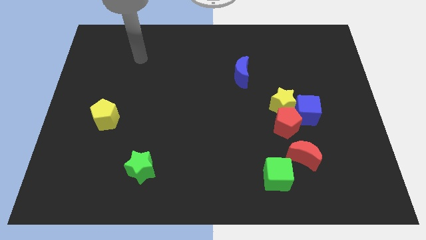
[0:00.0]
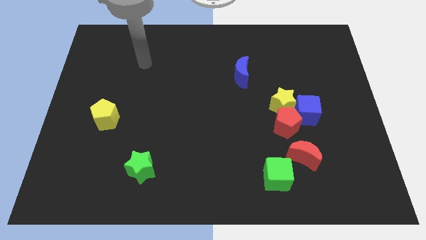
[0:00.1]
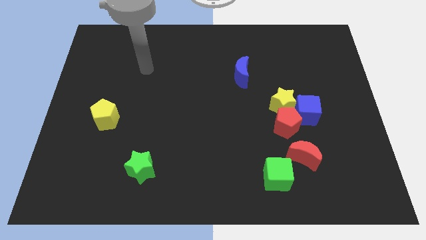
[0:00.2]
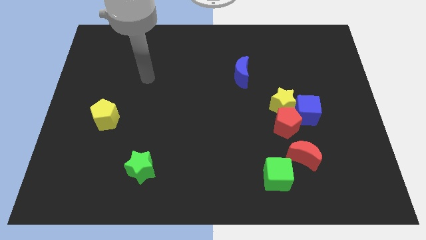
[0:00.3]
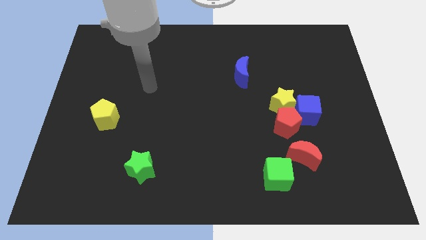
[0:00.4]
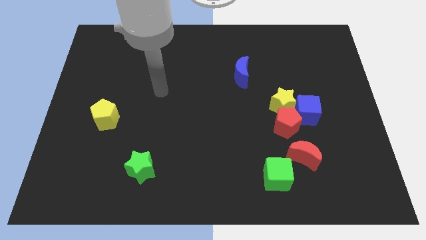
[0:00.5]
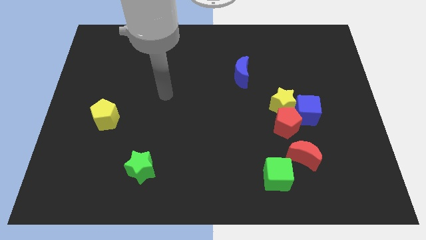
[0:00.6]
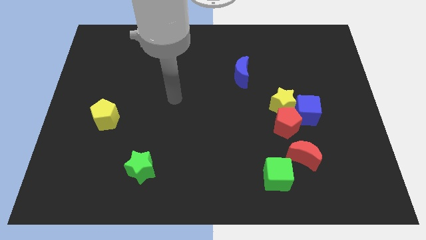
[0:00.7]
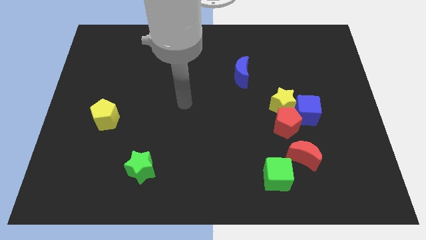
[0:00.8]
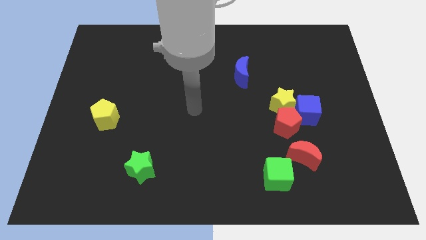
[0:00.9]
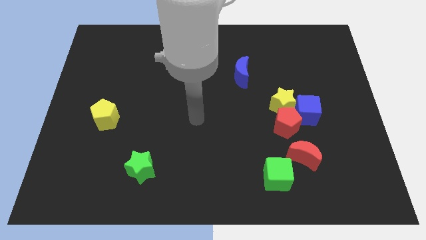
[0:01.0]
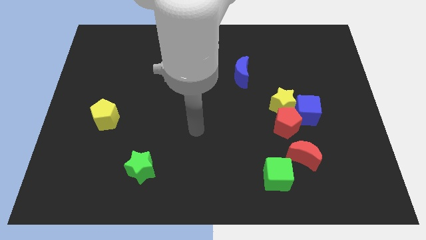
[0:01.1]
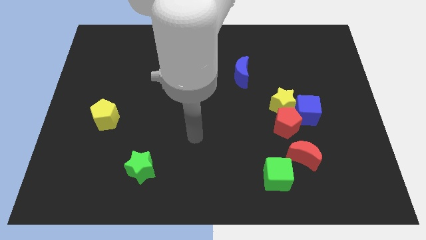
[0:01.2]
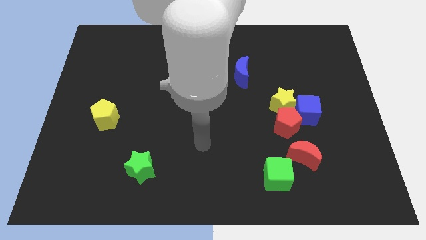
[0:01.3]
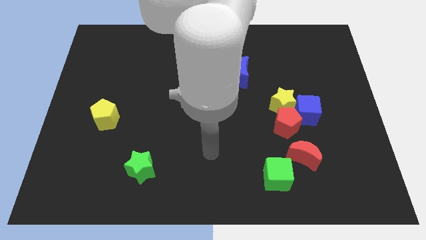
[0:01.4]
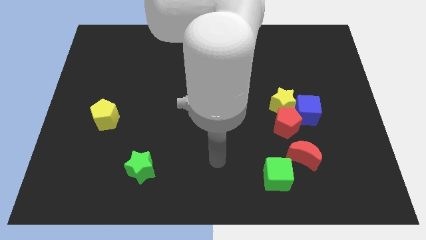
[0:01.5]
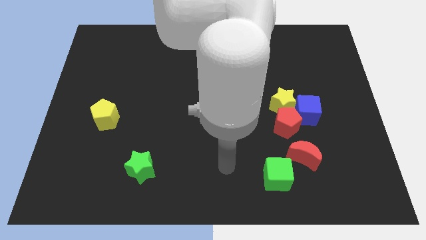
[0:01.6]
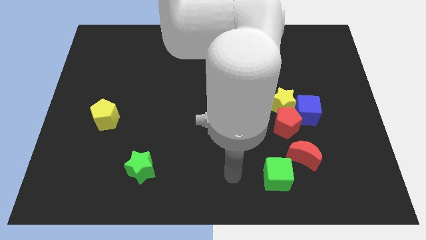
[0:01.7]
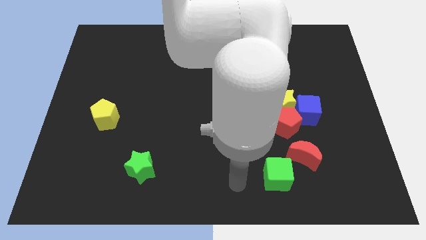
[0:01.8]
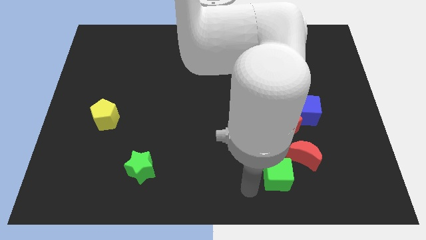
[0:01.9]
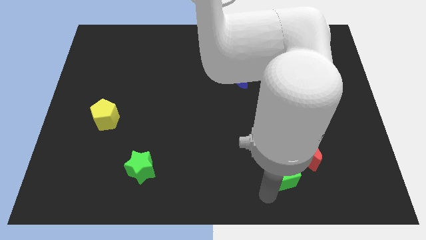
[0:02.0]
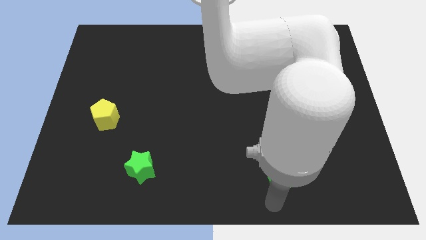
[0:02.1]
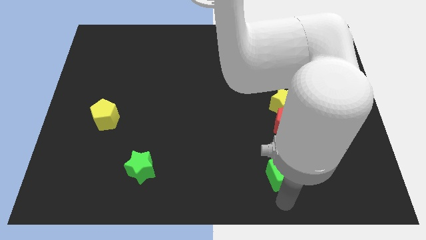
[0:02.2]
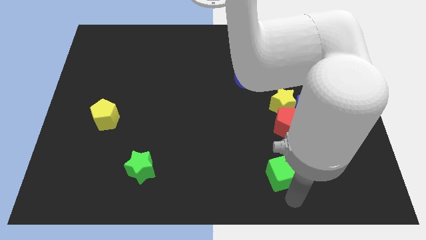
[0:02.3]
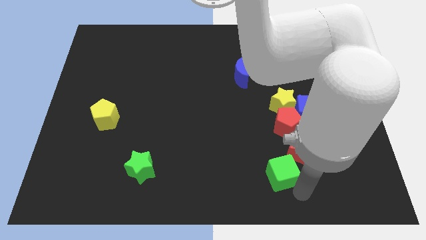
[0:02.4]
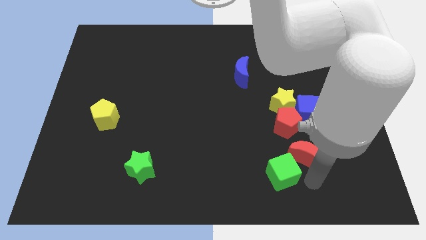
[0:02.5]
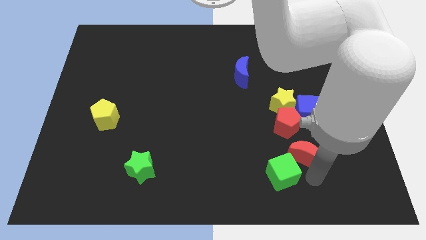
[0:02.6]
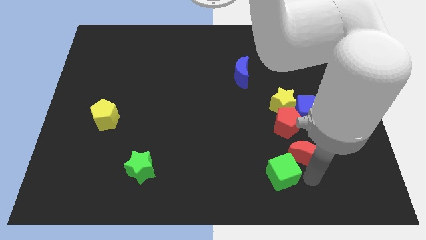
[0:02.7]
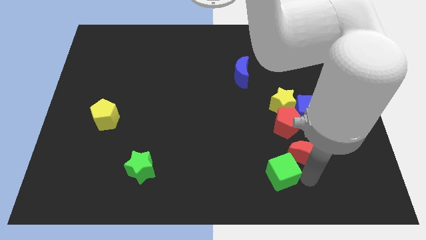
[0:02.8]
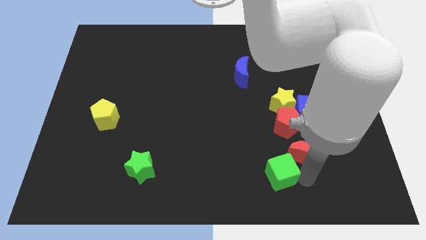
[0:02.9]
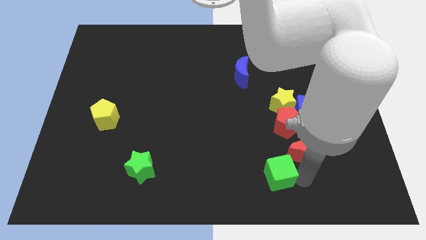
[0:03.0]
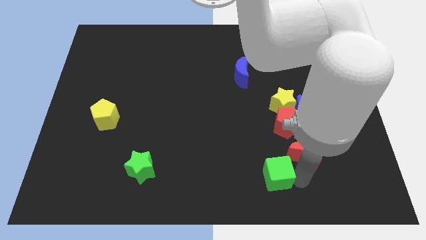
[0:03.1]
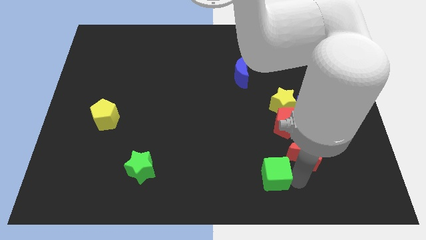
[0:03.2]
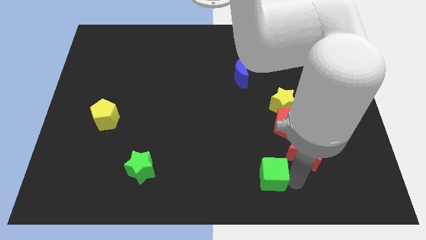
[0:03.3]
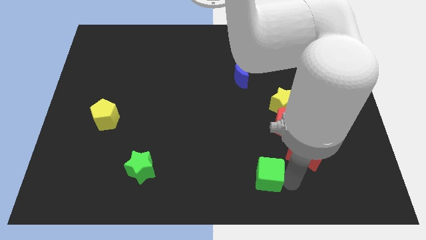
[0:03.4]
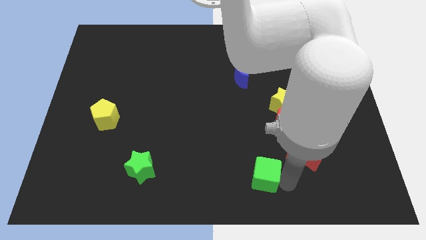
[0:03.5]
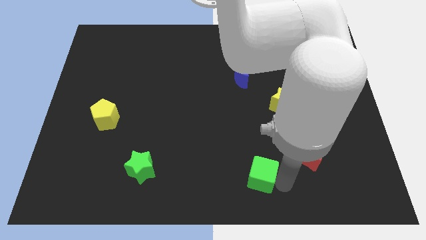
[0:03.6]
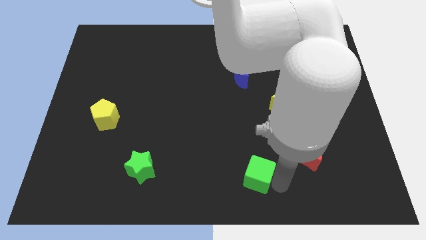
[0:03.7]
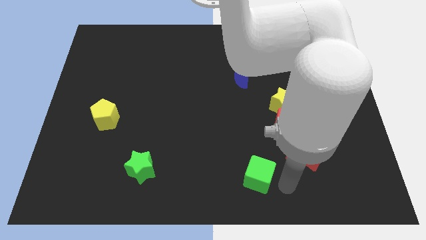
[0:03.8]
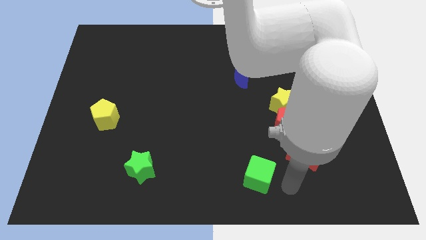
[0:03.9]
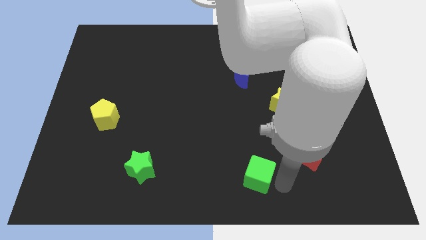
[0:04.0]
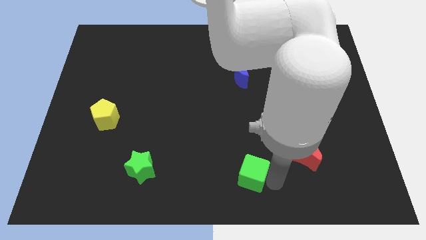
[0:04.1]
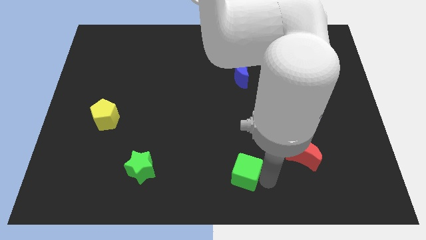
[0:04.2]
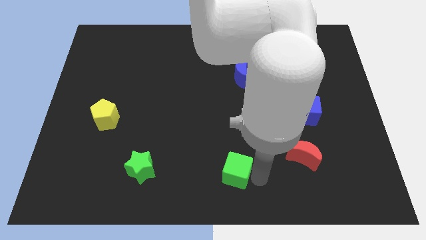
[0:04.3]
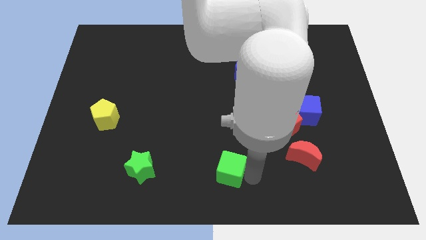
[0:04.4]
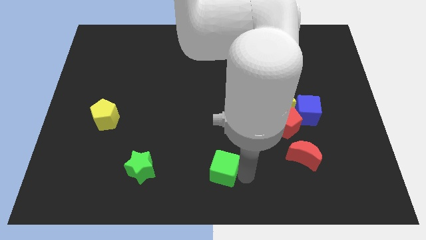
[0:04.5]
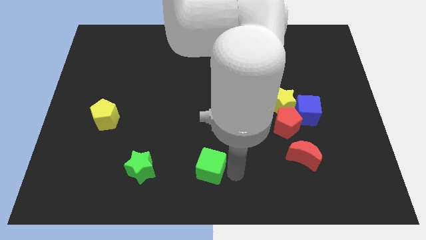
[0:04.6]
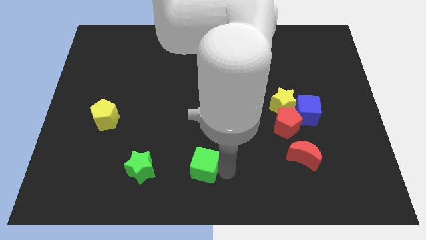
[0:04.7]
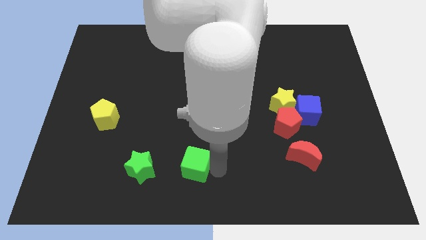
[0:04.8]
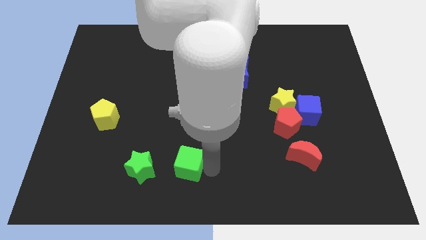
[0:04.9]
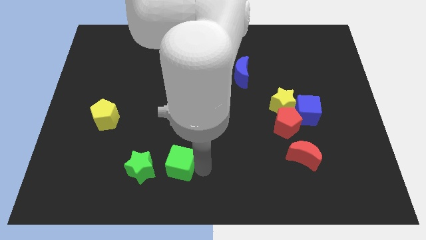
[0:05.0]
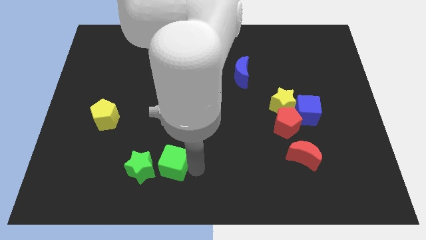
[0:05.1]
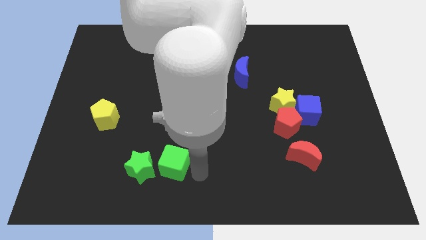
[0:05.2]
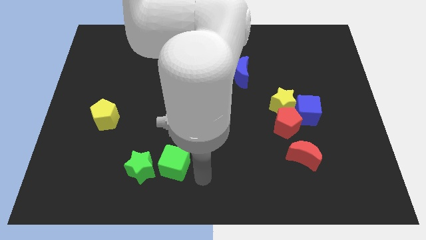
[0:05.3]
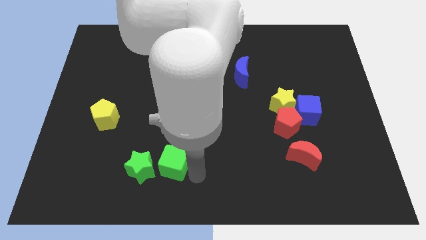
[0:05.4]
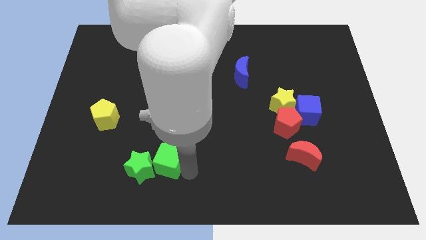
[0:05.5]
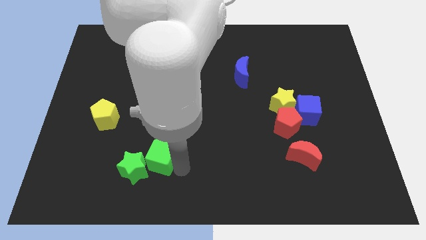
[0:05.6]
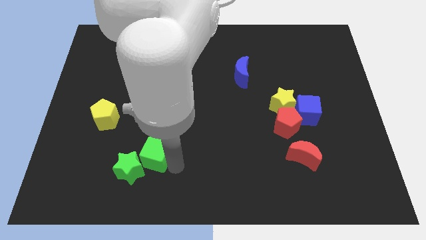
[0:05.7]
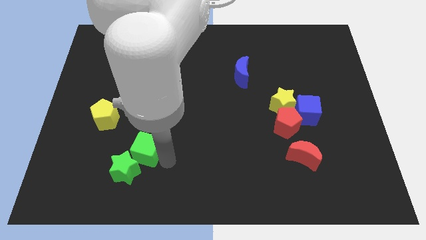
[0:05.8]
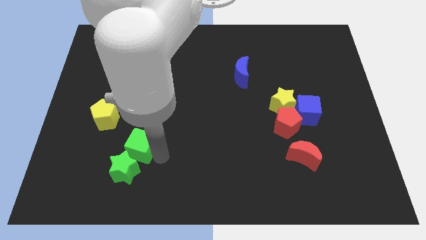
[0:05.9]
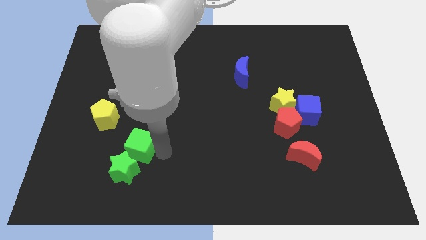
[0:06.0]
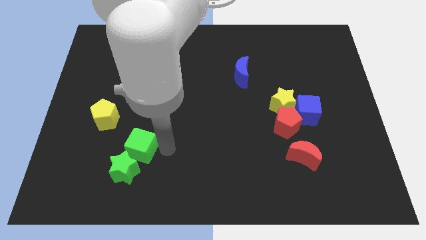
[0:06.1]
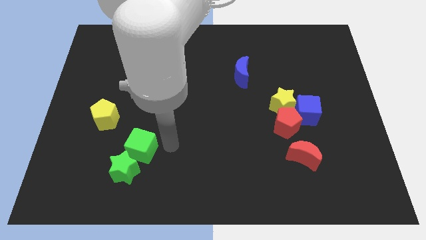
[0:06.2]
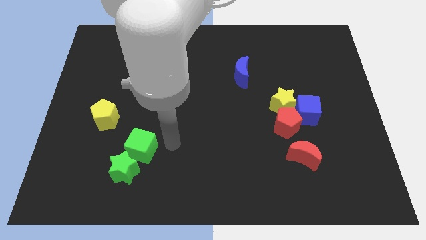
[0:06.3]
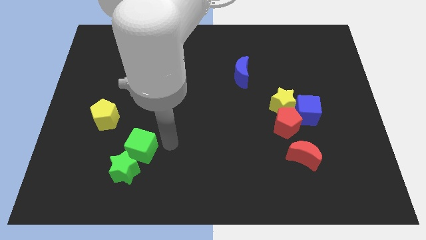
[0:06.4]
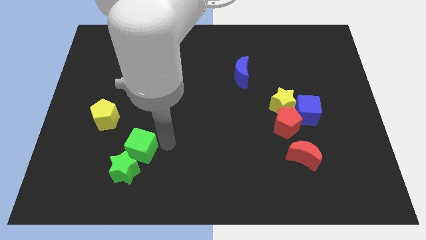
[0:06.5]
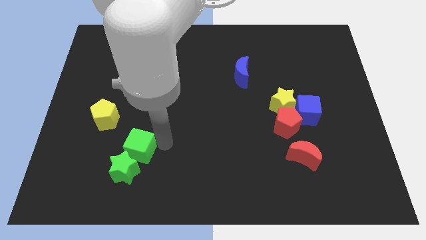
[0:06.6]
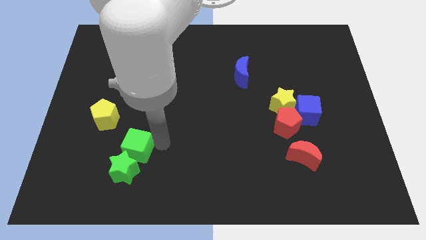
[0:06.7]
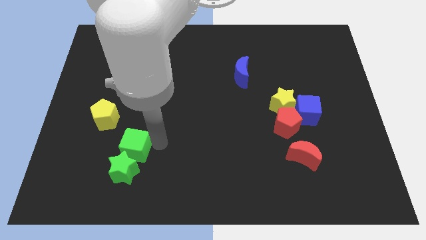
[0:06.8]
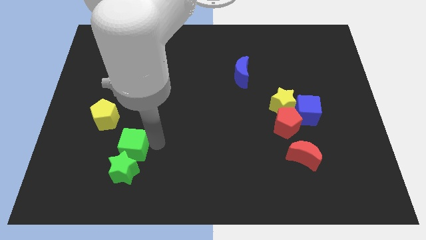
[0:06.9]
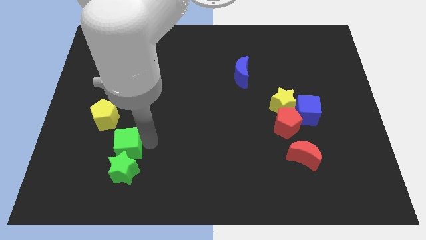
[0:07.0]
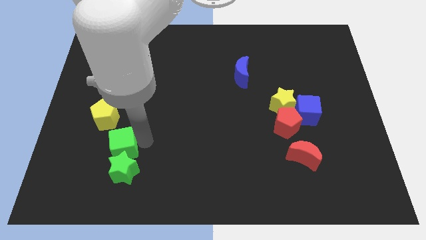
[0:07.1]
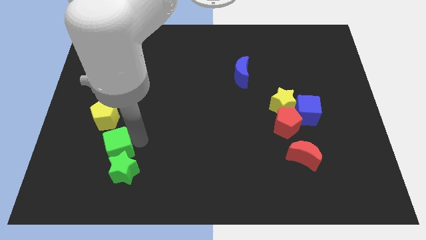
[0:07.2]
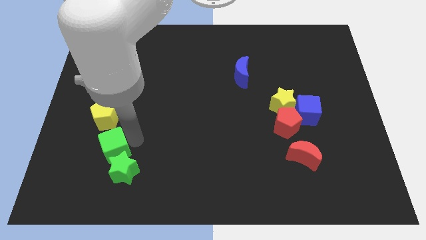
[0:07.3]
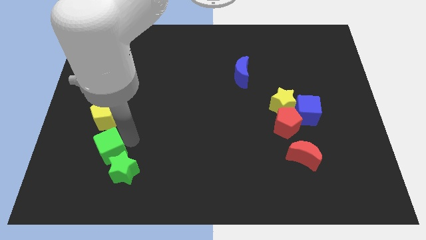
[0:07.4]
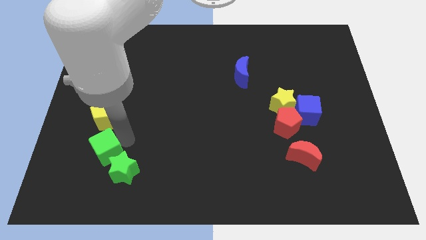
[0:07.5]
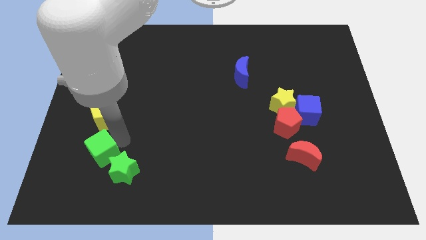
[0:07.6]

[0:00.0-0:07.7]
move the green cube to the left of the green star
